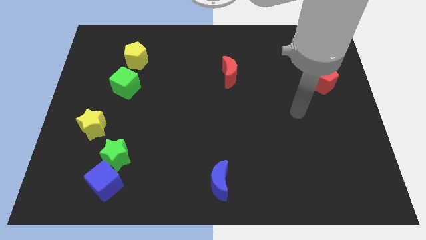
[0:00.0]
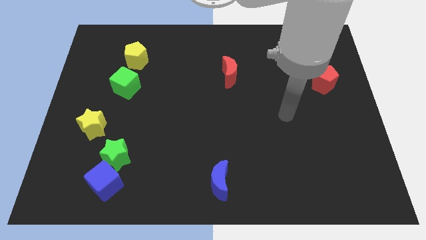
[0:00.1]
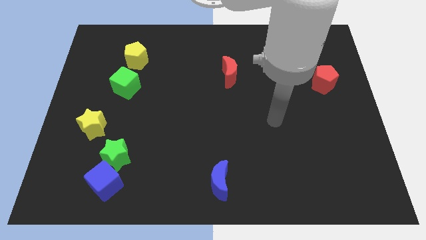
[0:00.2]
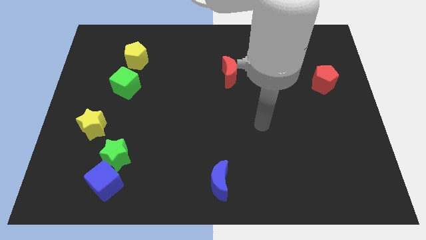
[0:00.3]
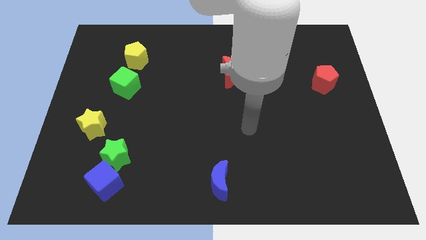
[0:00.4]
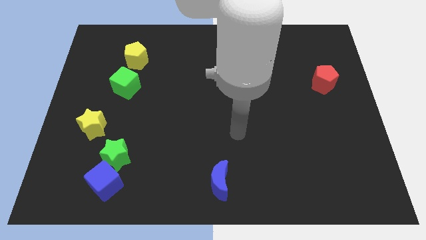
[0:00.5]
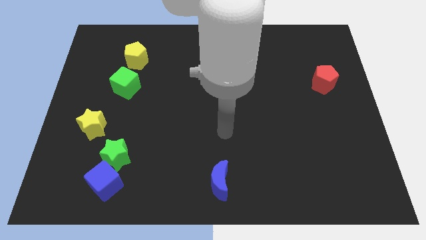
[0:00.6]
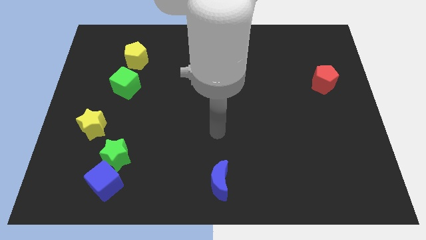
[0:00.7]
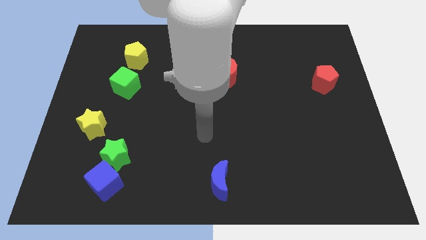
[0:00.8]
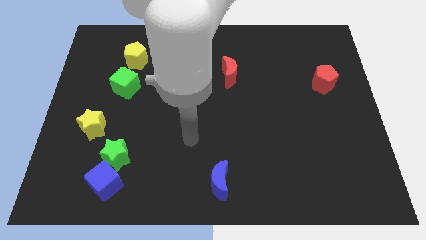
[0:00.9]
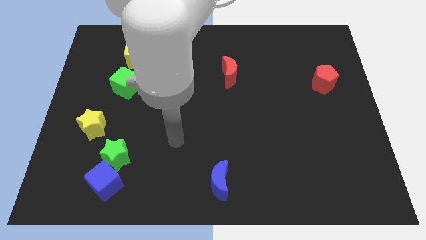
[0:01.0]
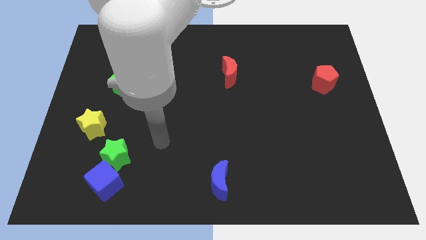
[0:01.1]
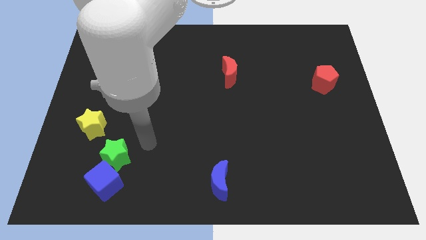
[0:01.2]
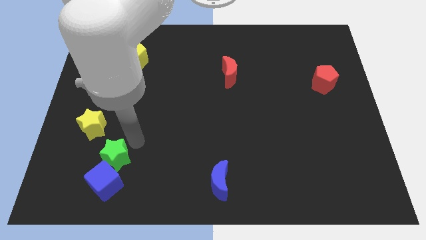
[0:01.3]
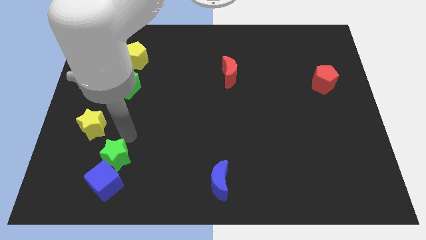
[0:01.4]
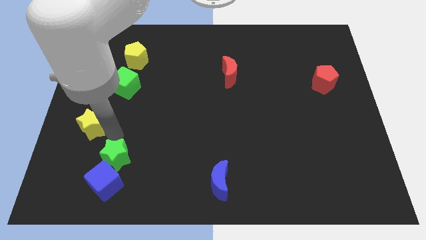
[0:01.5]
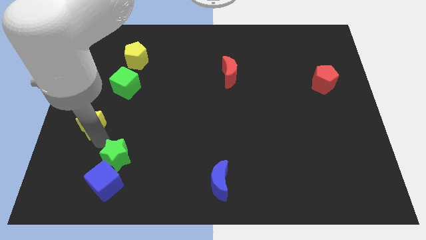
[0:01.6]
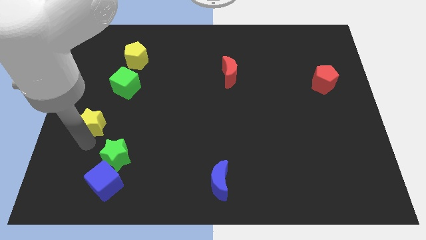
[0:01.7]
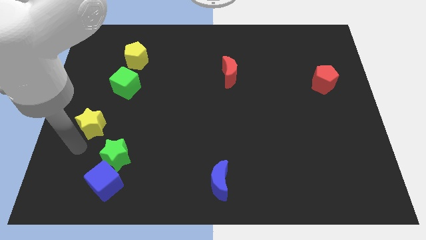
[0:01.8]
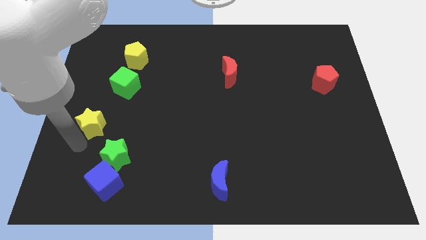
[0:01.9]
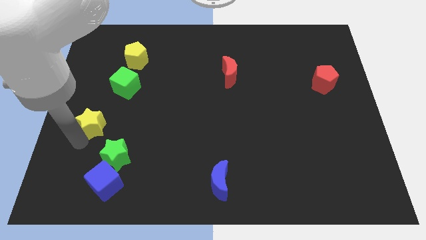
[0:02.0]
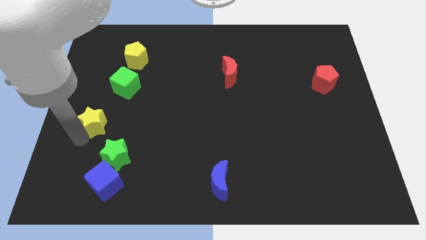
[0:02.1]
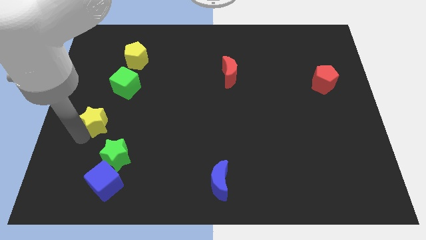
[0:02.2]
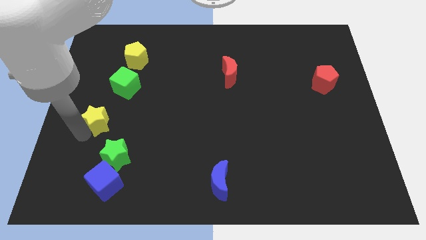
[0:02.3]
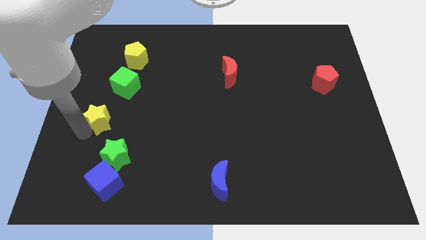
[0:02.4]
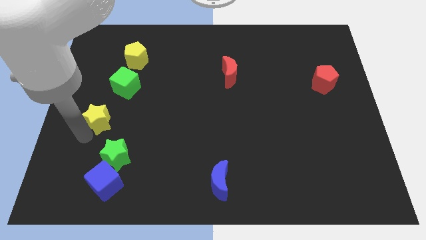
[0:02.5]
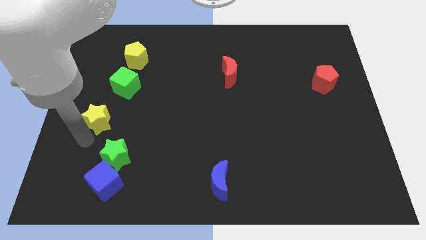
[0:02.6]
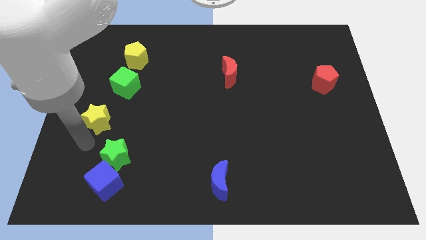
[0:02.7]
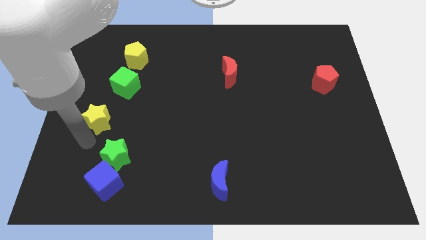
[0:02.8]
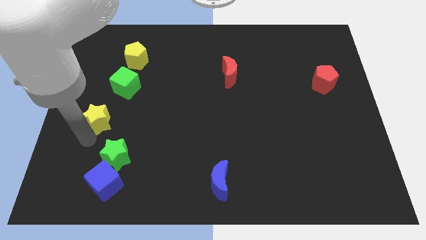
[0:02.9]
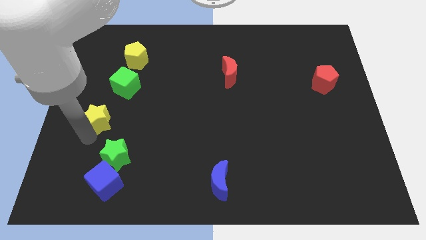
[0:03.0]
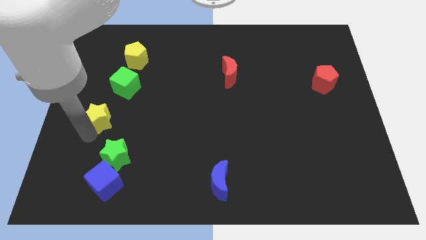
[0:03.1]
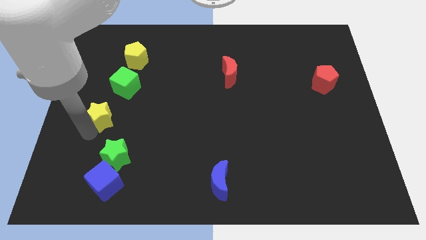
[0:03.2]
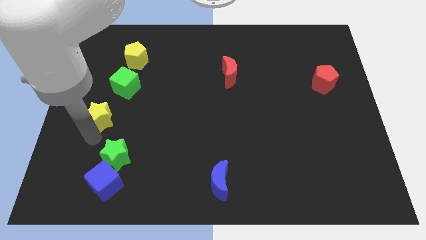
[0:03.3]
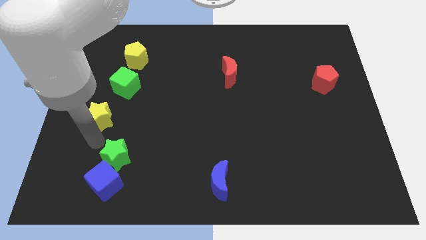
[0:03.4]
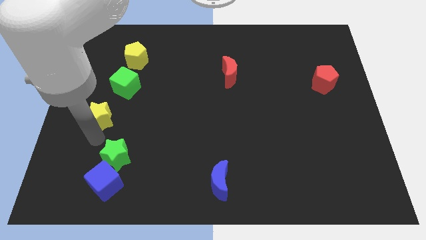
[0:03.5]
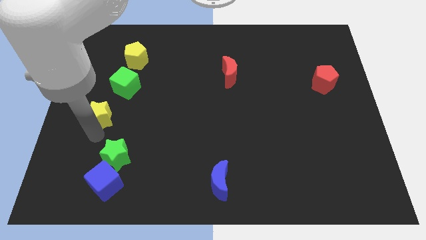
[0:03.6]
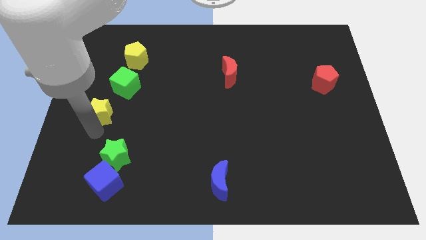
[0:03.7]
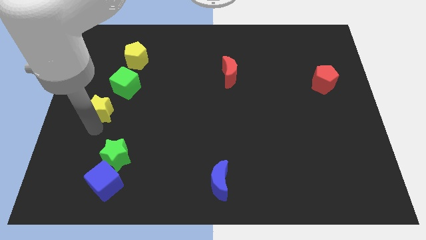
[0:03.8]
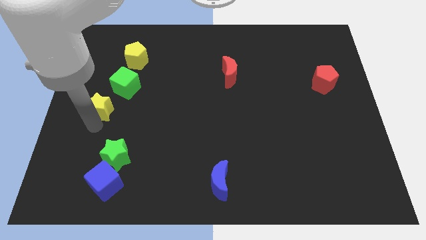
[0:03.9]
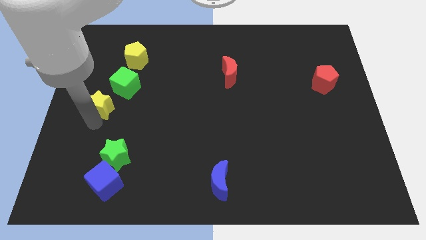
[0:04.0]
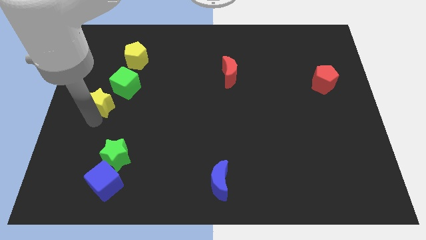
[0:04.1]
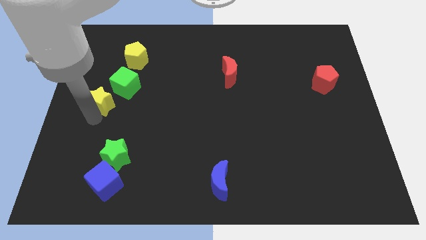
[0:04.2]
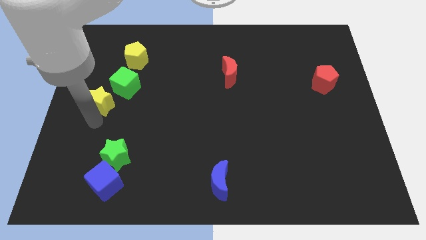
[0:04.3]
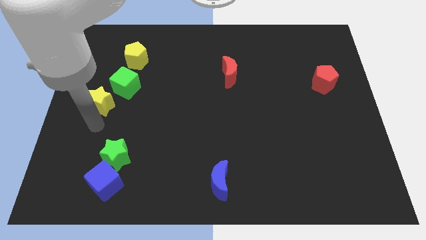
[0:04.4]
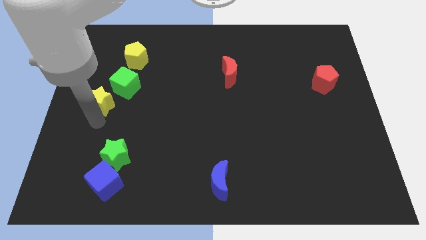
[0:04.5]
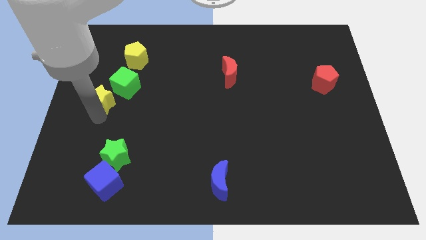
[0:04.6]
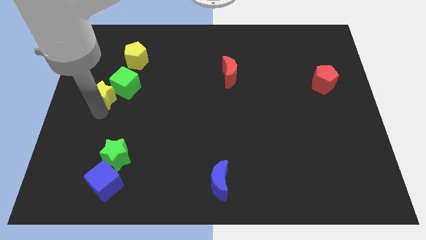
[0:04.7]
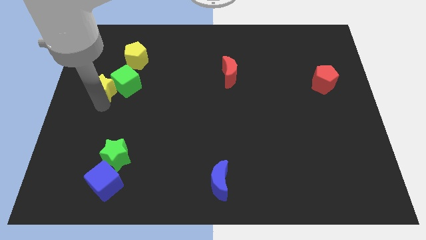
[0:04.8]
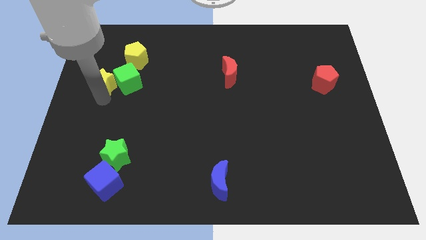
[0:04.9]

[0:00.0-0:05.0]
slide the yellow star to the top left side of the green cube

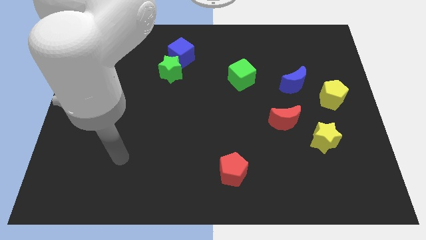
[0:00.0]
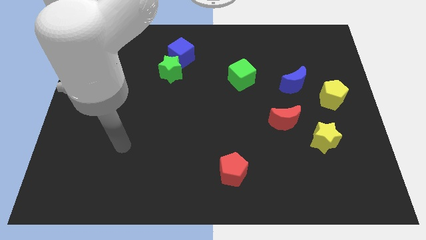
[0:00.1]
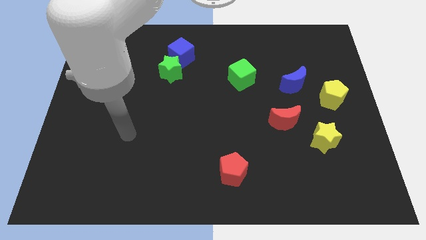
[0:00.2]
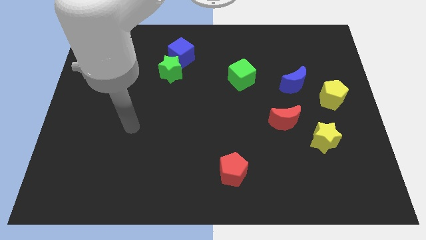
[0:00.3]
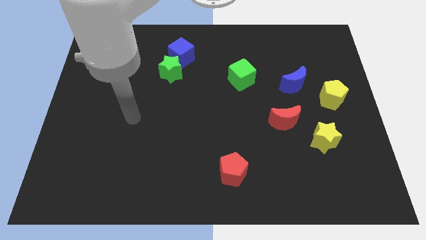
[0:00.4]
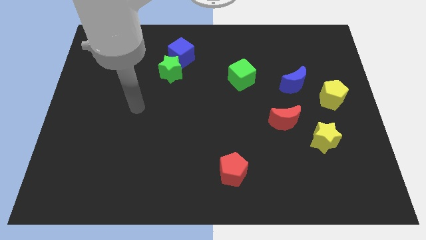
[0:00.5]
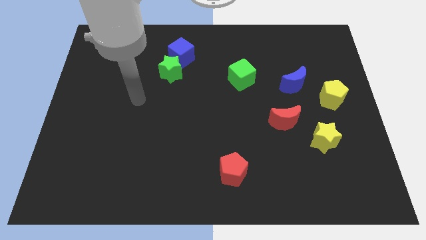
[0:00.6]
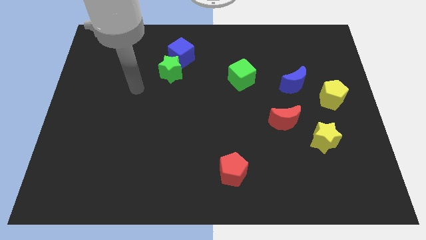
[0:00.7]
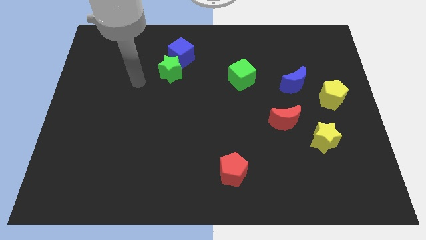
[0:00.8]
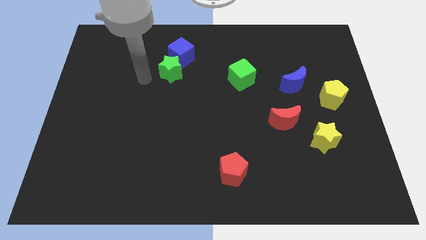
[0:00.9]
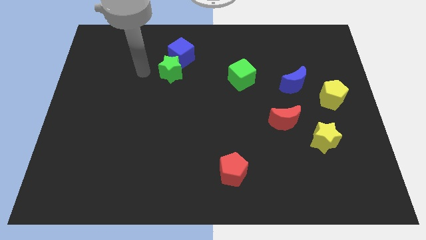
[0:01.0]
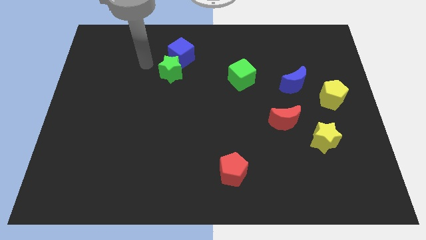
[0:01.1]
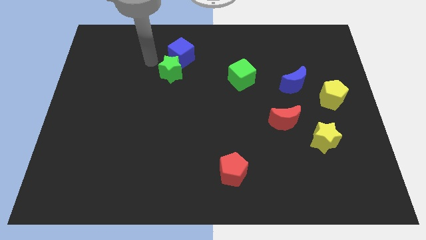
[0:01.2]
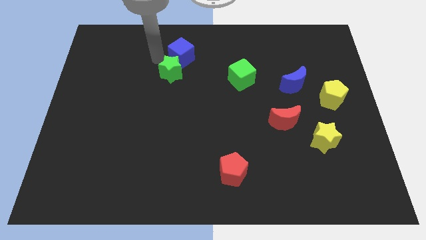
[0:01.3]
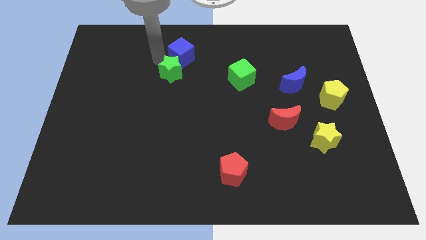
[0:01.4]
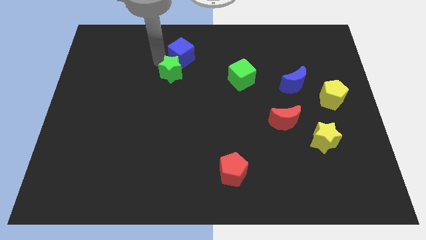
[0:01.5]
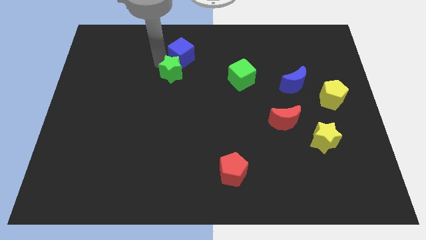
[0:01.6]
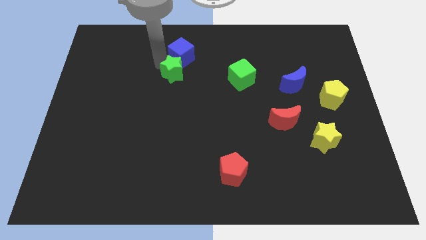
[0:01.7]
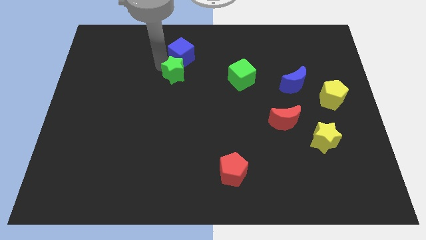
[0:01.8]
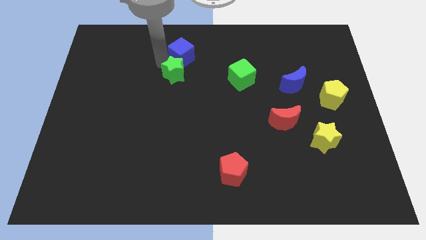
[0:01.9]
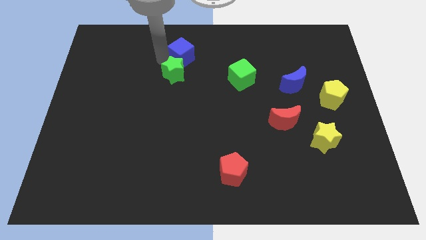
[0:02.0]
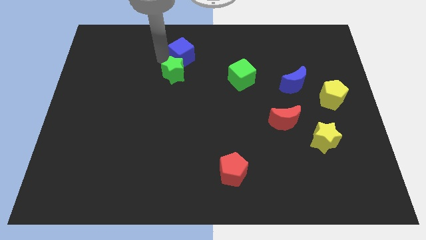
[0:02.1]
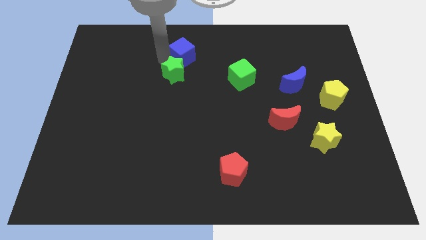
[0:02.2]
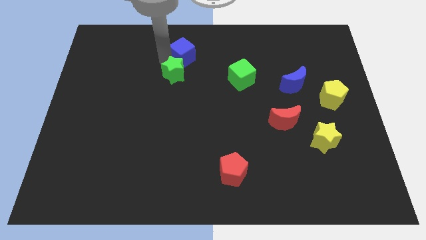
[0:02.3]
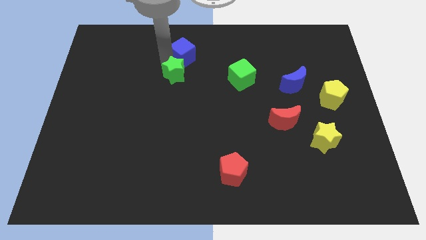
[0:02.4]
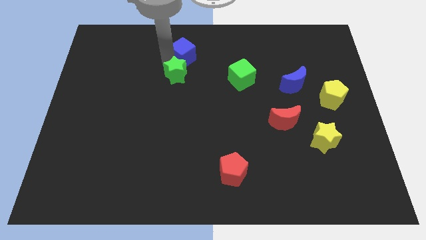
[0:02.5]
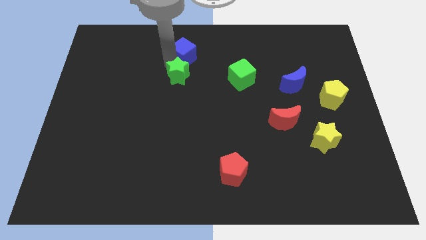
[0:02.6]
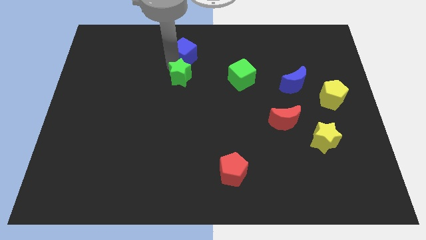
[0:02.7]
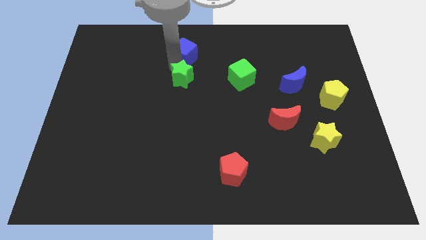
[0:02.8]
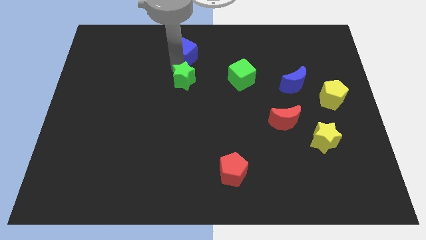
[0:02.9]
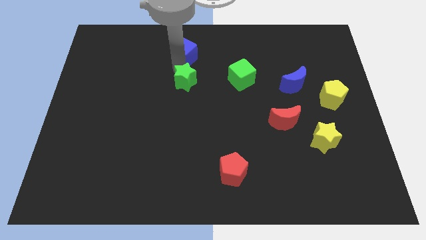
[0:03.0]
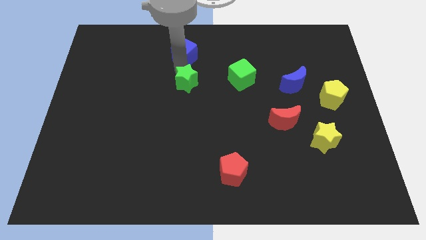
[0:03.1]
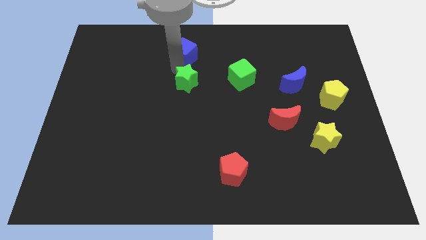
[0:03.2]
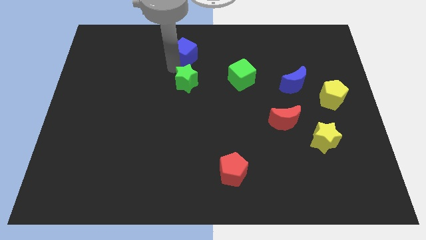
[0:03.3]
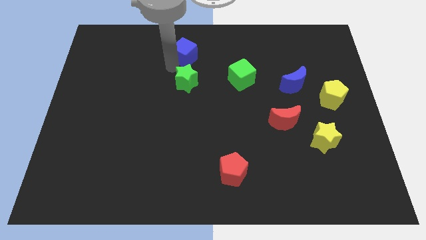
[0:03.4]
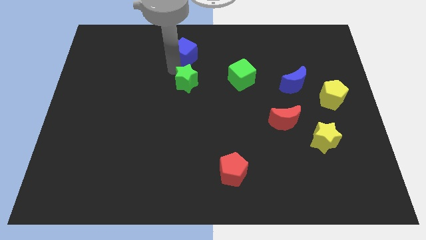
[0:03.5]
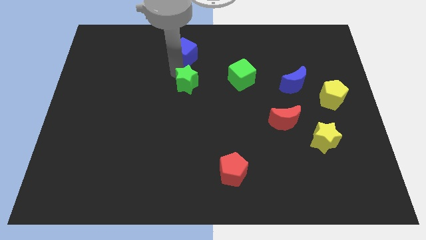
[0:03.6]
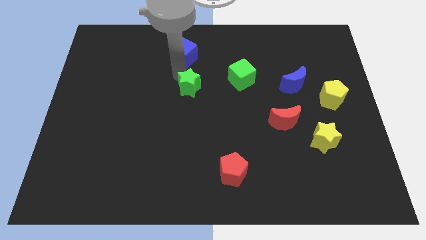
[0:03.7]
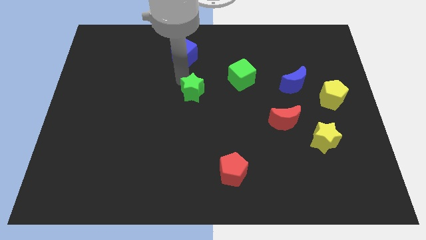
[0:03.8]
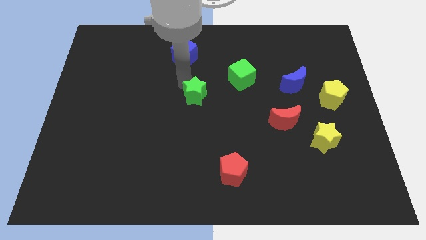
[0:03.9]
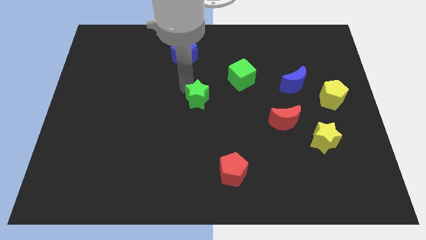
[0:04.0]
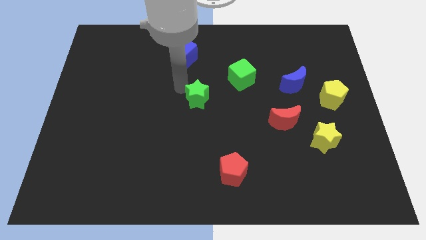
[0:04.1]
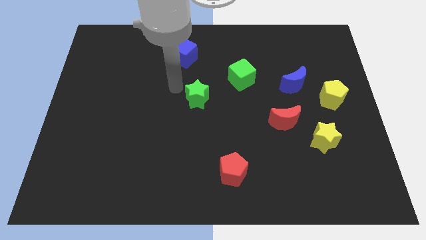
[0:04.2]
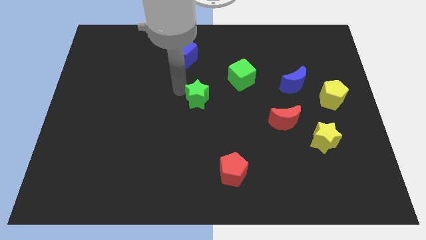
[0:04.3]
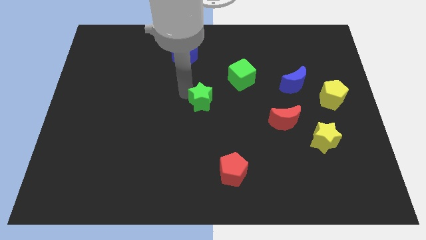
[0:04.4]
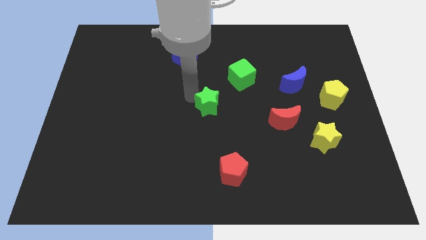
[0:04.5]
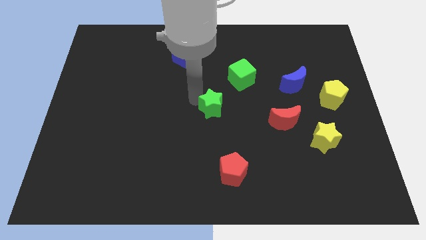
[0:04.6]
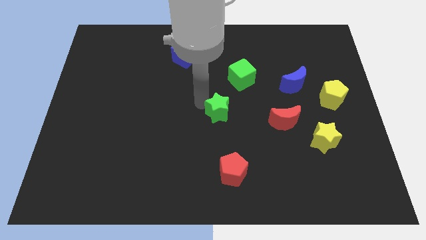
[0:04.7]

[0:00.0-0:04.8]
push the green star just left of the red moon
